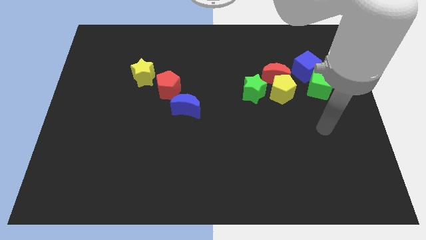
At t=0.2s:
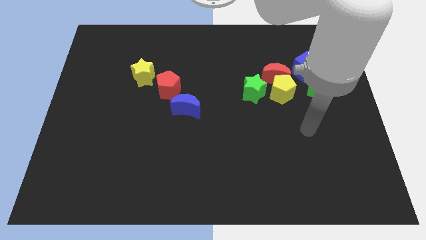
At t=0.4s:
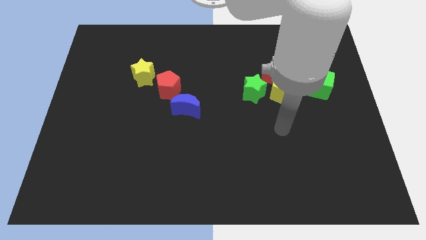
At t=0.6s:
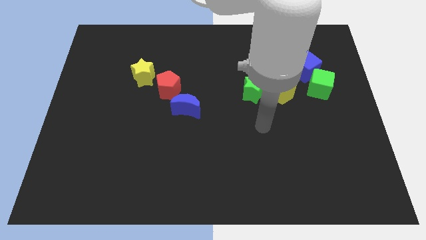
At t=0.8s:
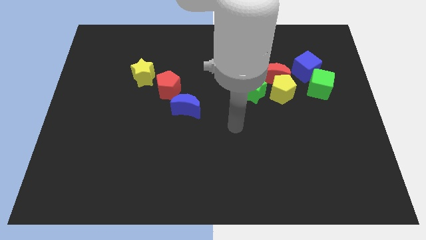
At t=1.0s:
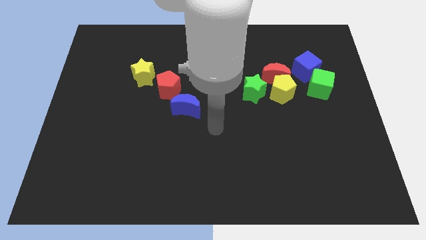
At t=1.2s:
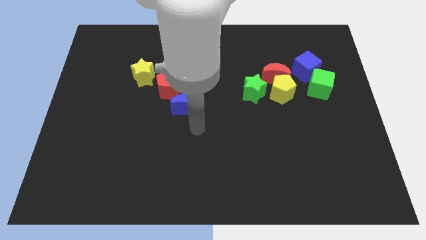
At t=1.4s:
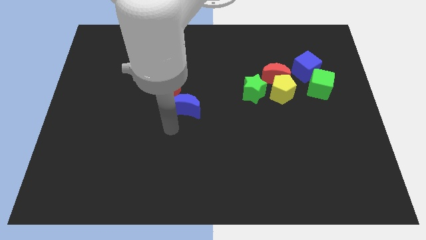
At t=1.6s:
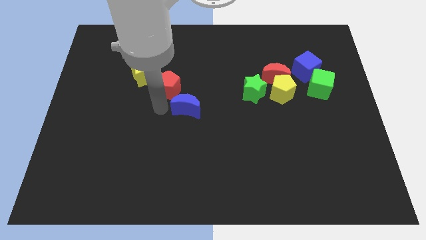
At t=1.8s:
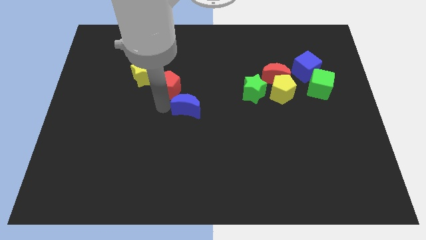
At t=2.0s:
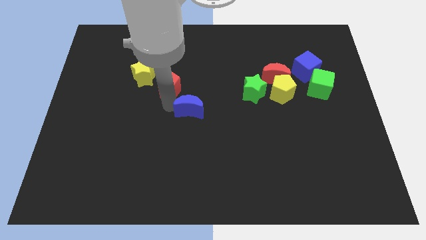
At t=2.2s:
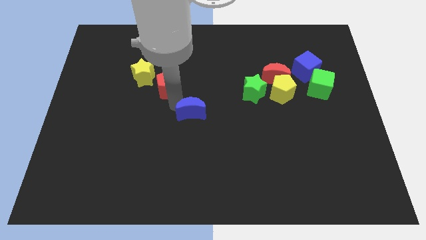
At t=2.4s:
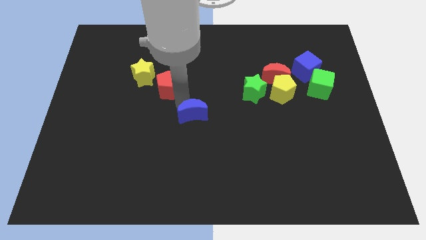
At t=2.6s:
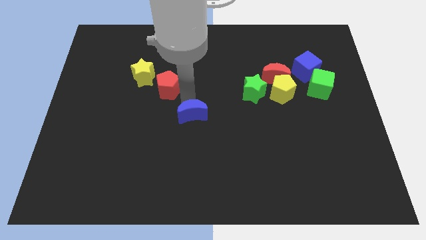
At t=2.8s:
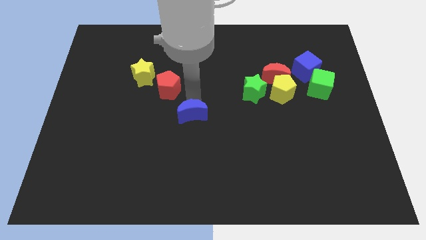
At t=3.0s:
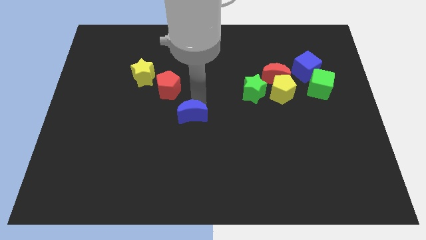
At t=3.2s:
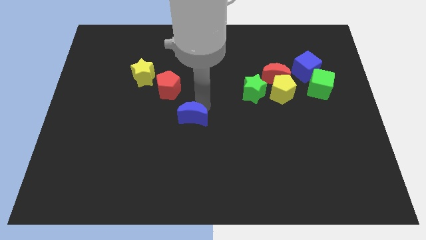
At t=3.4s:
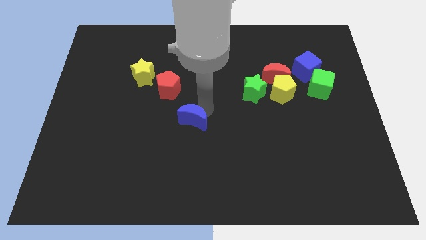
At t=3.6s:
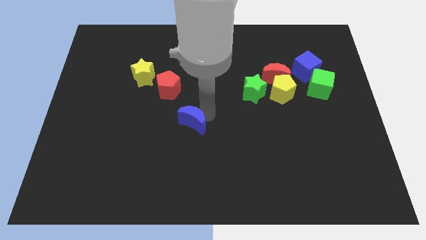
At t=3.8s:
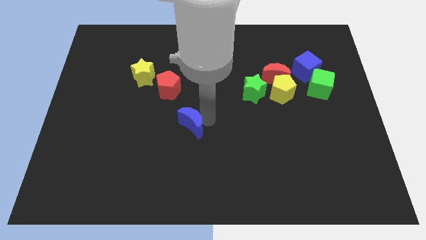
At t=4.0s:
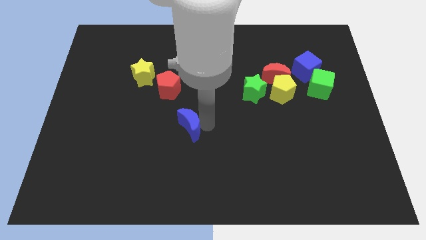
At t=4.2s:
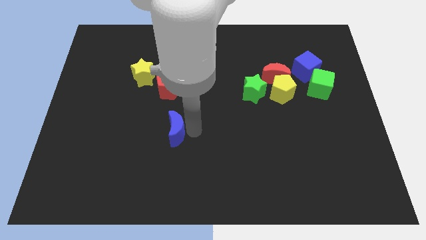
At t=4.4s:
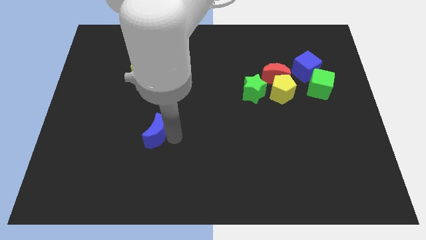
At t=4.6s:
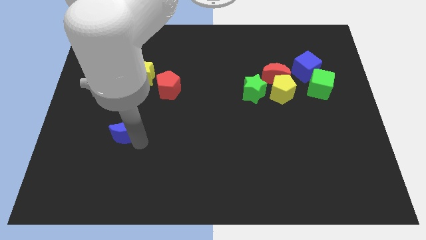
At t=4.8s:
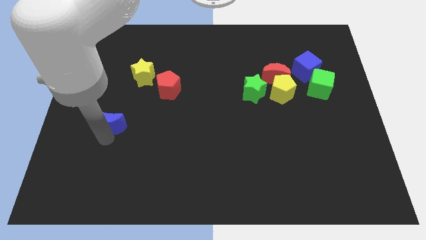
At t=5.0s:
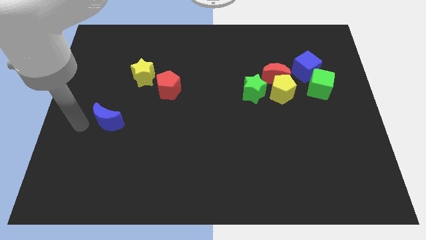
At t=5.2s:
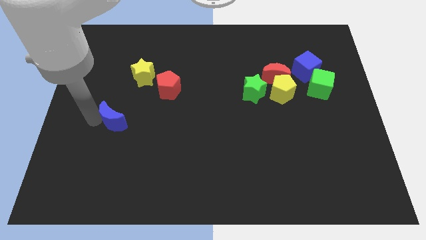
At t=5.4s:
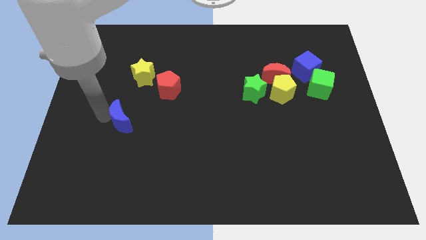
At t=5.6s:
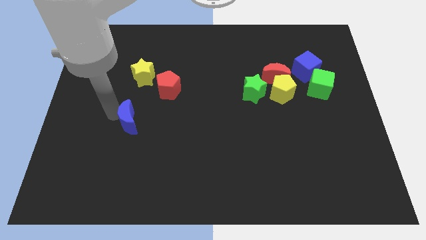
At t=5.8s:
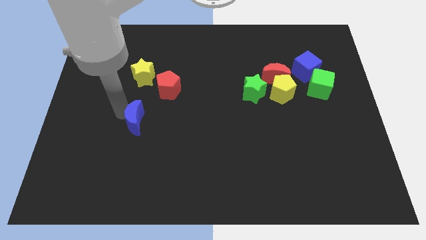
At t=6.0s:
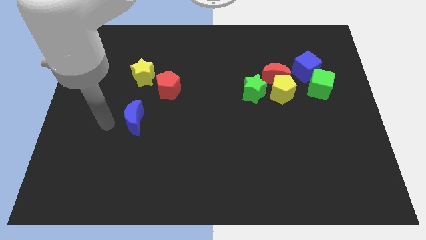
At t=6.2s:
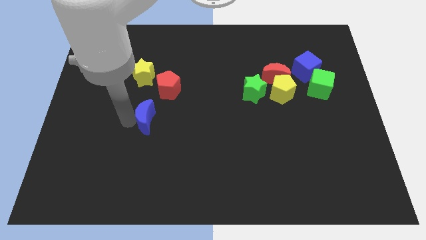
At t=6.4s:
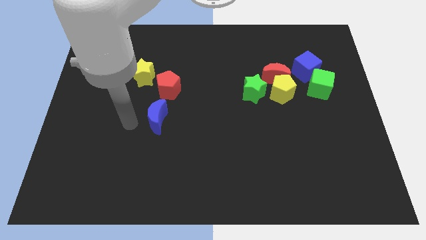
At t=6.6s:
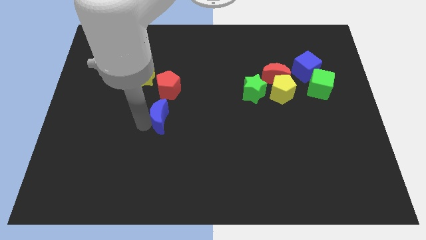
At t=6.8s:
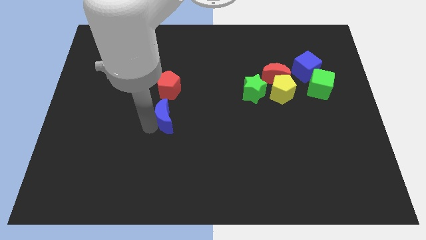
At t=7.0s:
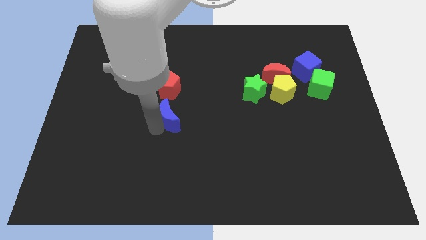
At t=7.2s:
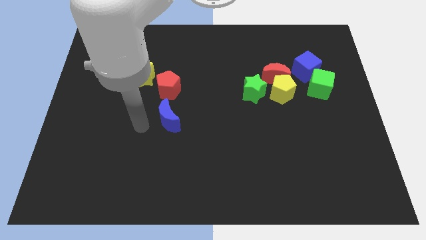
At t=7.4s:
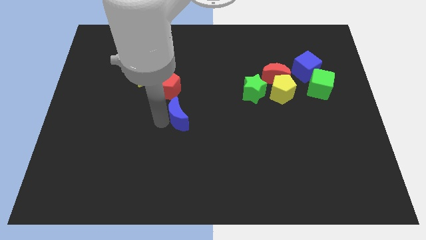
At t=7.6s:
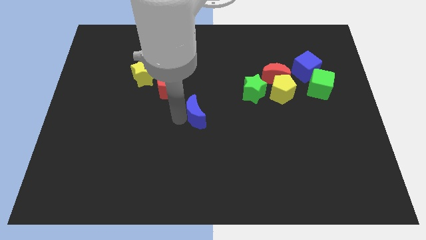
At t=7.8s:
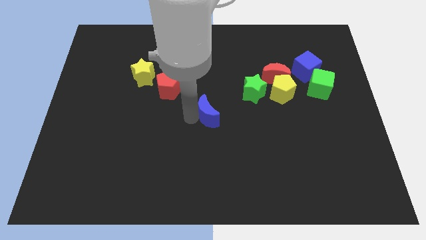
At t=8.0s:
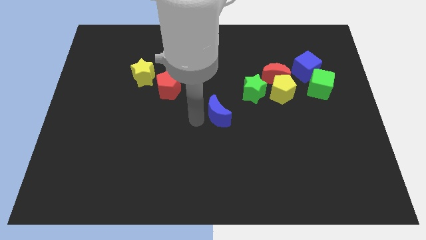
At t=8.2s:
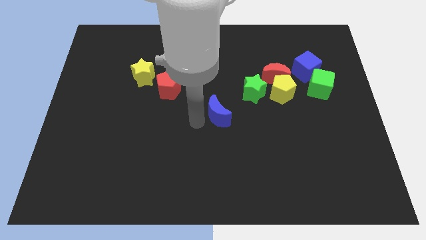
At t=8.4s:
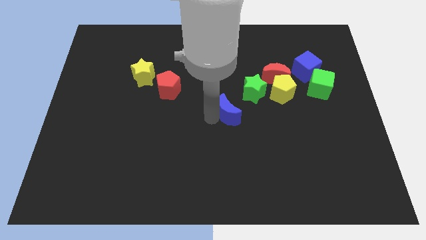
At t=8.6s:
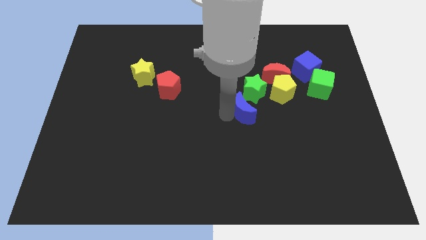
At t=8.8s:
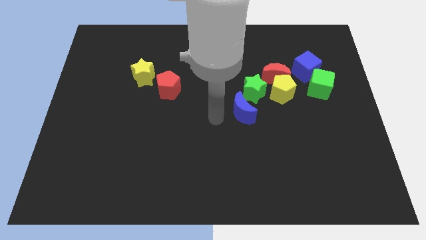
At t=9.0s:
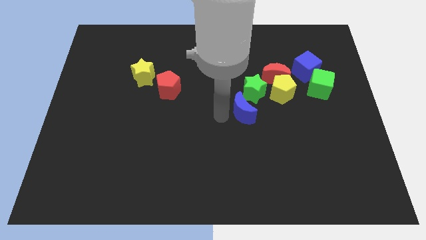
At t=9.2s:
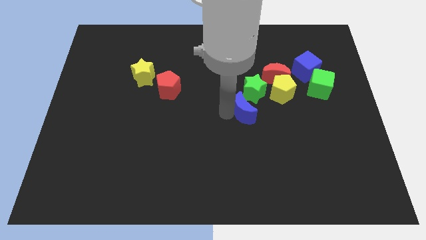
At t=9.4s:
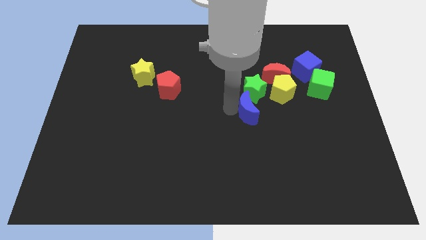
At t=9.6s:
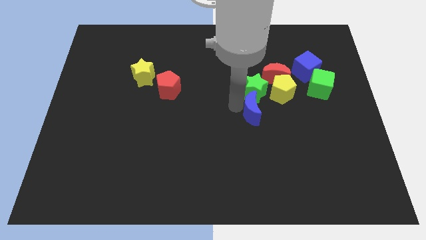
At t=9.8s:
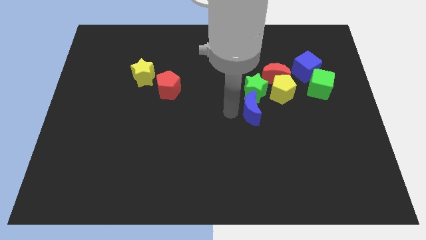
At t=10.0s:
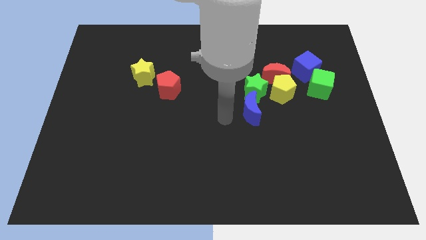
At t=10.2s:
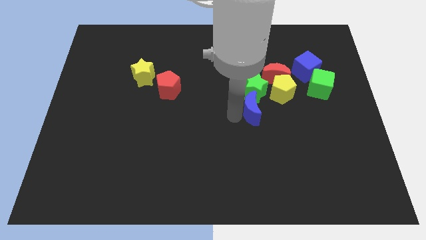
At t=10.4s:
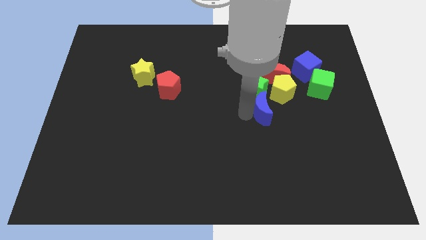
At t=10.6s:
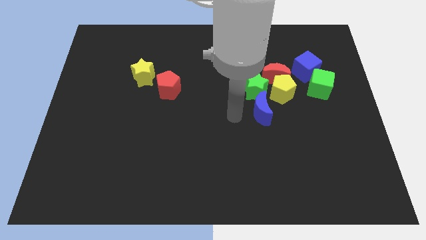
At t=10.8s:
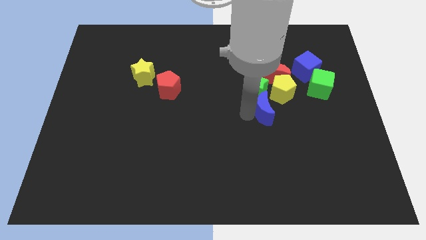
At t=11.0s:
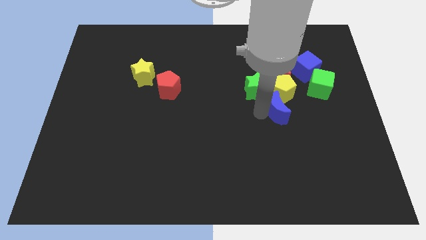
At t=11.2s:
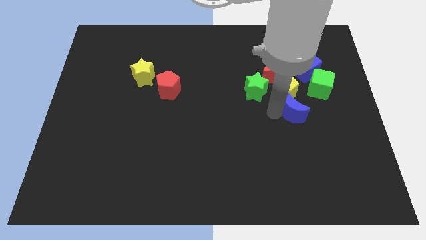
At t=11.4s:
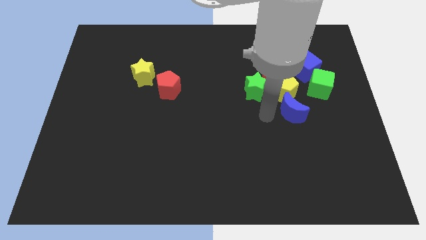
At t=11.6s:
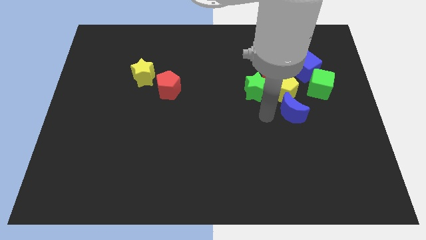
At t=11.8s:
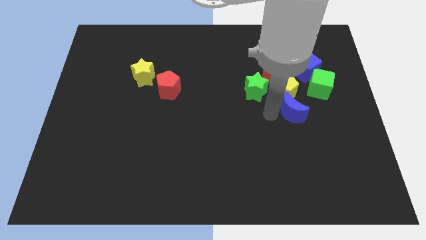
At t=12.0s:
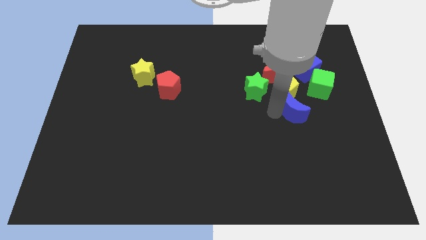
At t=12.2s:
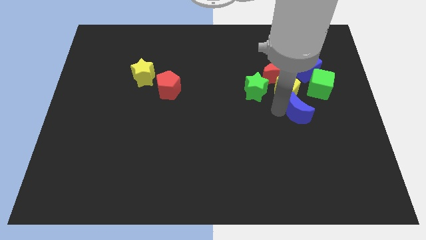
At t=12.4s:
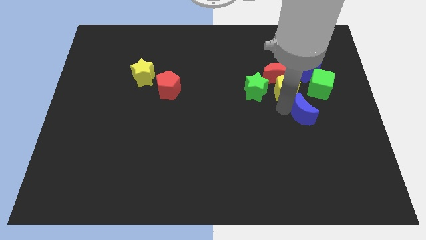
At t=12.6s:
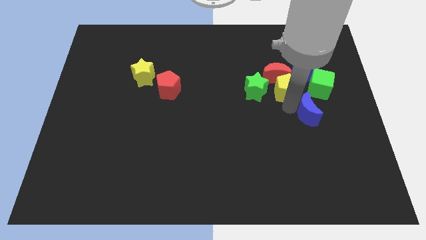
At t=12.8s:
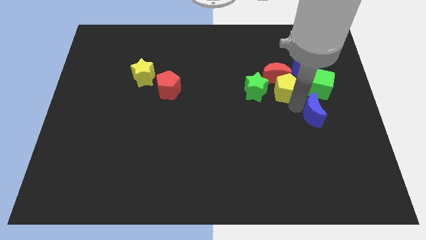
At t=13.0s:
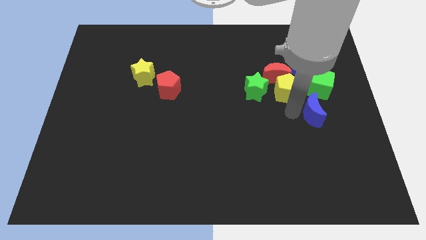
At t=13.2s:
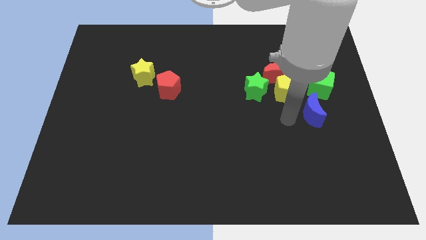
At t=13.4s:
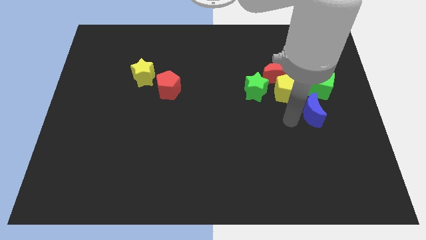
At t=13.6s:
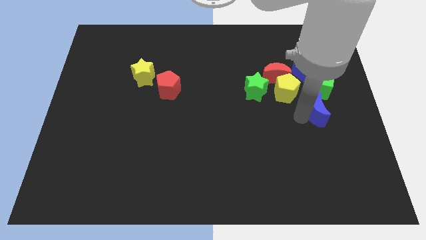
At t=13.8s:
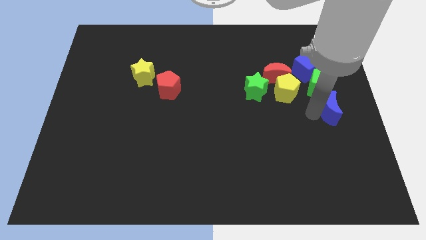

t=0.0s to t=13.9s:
slide the blue moon to the right side
